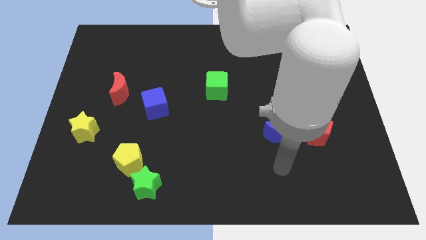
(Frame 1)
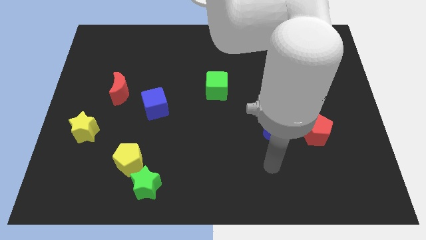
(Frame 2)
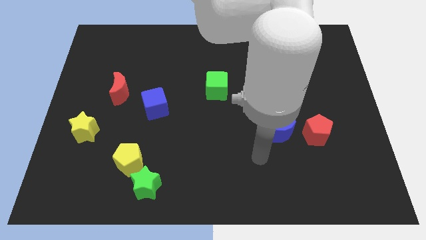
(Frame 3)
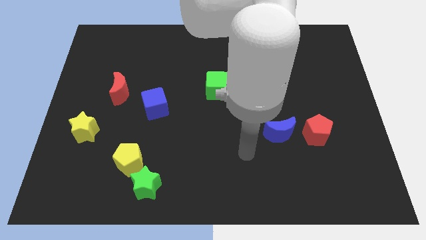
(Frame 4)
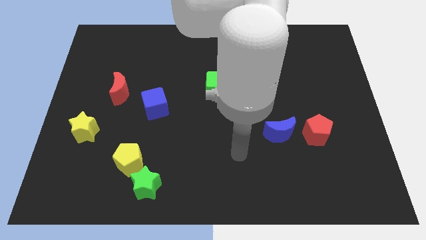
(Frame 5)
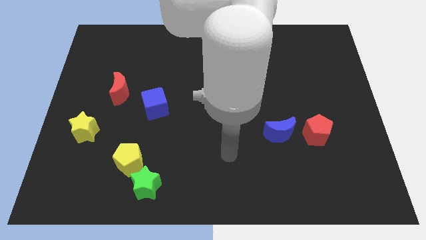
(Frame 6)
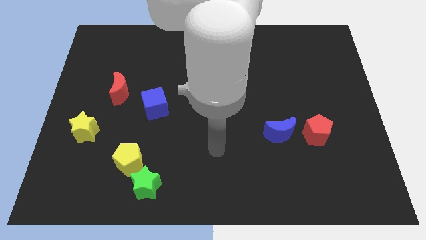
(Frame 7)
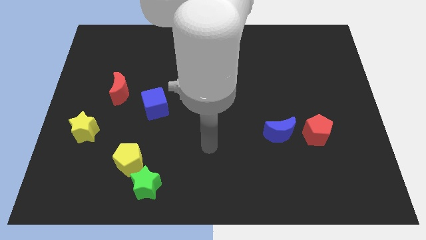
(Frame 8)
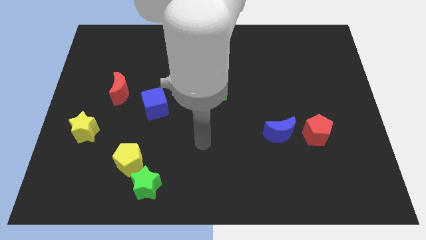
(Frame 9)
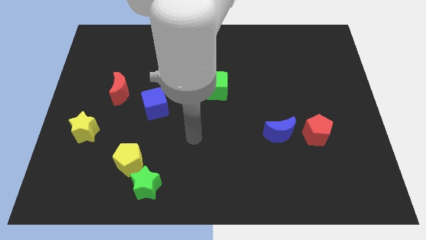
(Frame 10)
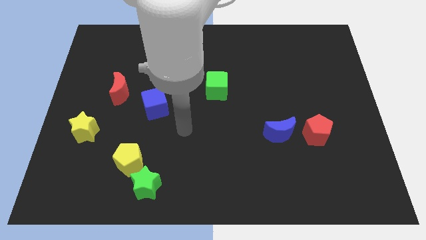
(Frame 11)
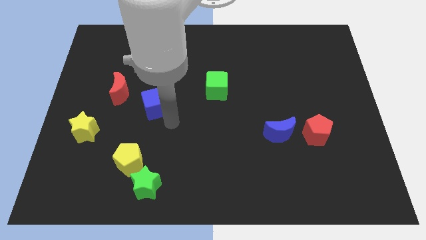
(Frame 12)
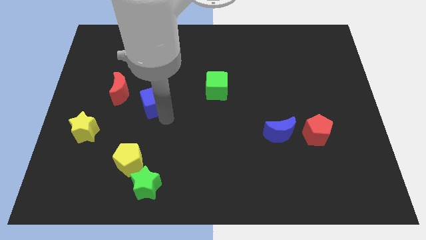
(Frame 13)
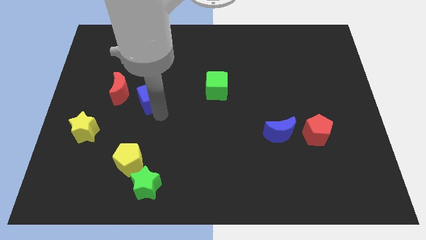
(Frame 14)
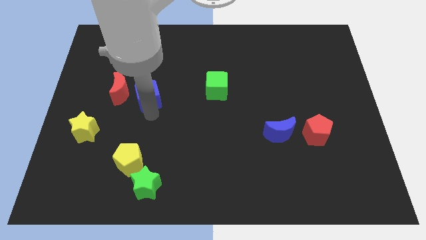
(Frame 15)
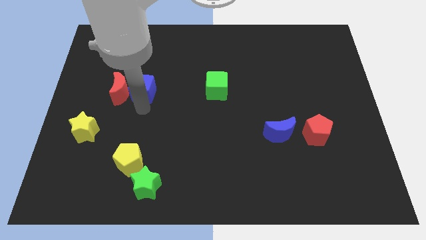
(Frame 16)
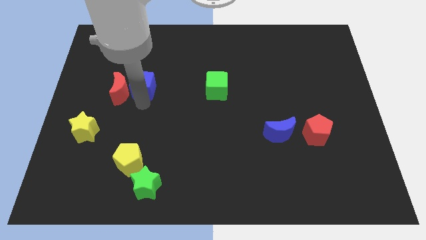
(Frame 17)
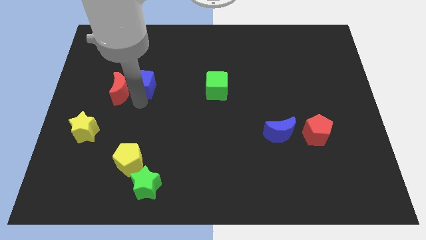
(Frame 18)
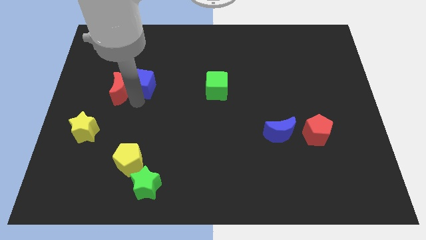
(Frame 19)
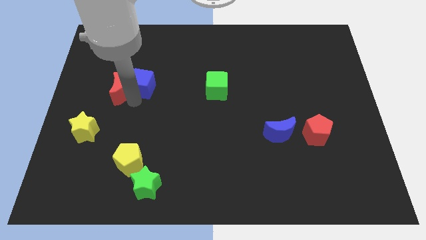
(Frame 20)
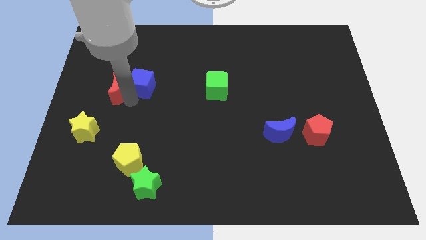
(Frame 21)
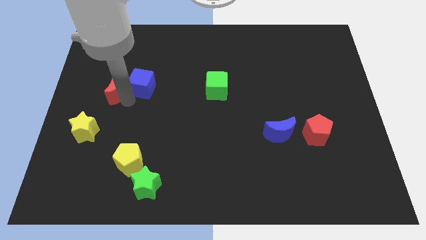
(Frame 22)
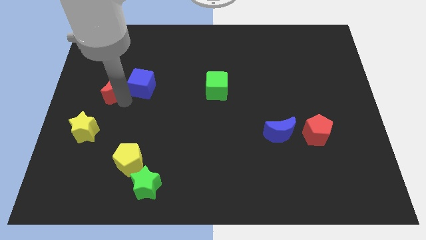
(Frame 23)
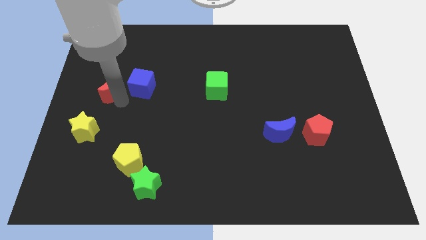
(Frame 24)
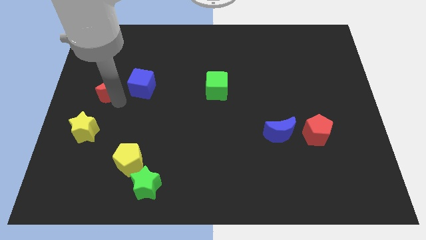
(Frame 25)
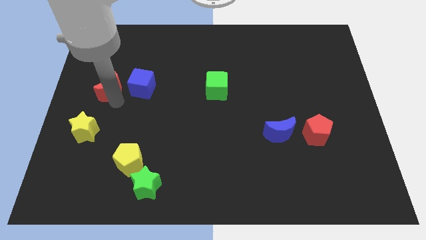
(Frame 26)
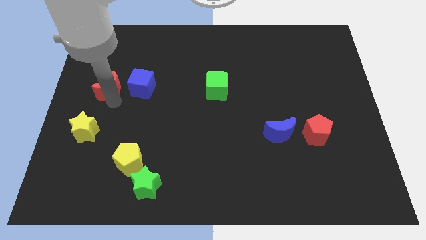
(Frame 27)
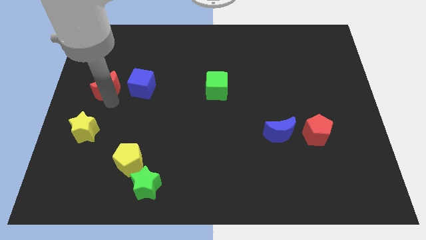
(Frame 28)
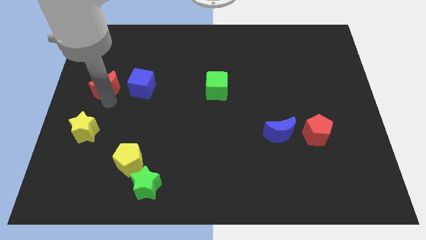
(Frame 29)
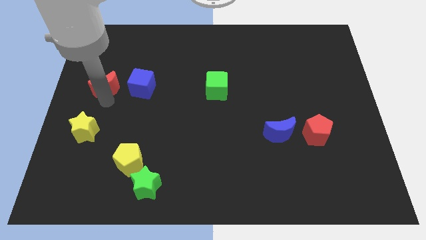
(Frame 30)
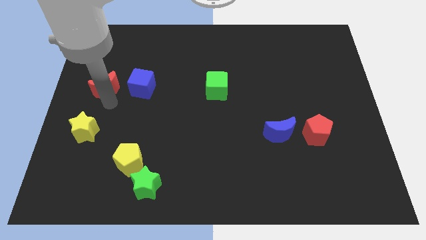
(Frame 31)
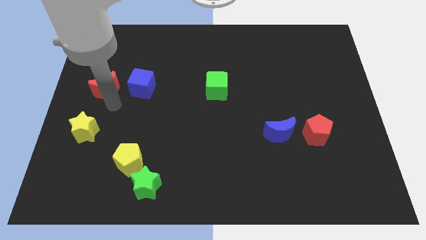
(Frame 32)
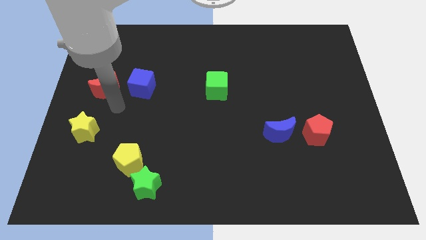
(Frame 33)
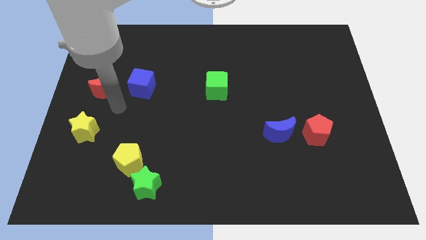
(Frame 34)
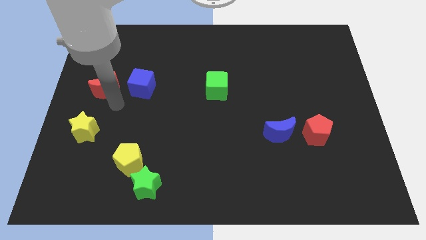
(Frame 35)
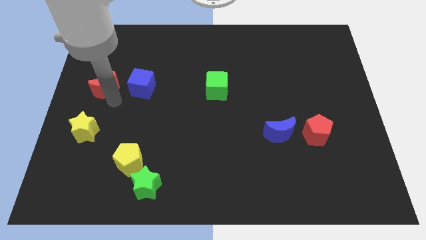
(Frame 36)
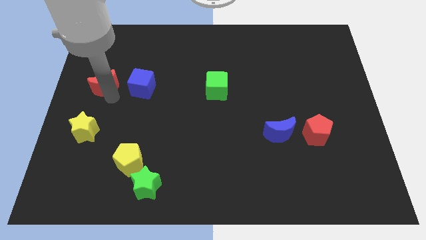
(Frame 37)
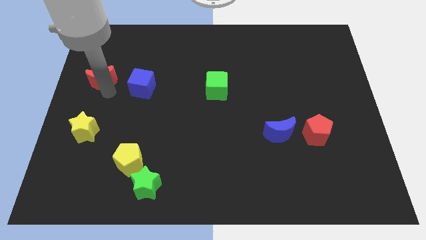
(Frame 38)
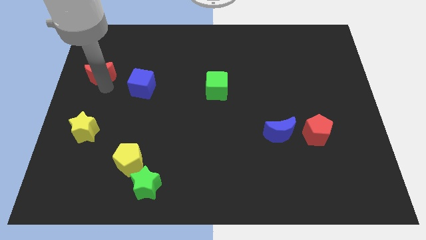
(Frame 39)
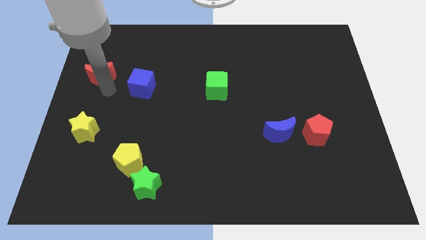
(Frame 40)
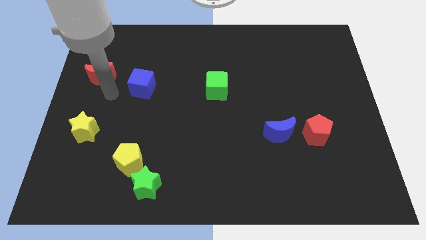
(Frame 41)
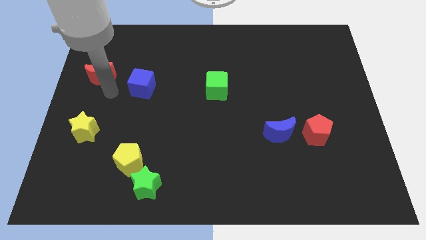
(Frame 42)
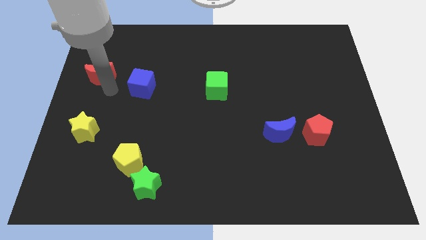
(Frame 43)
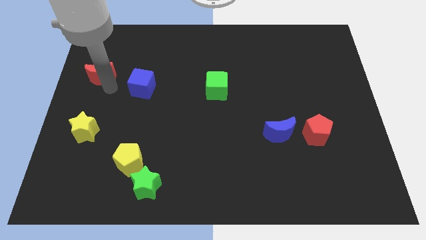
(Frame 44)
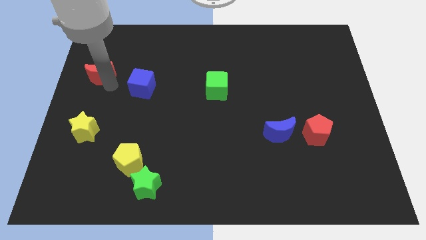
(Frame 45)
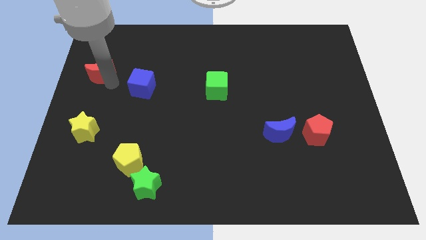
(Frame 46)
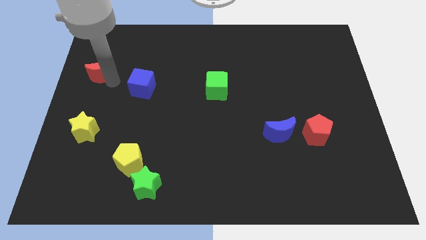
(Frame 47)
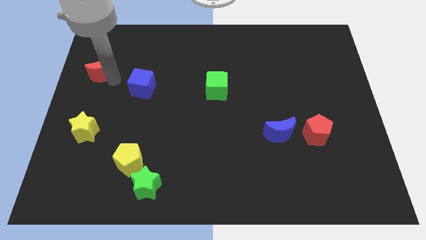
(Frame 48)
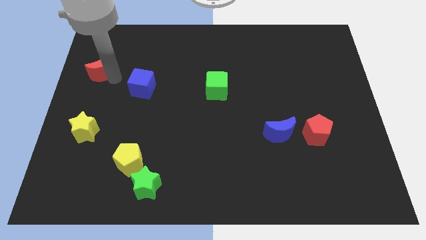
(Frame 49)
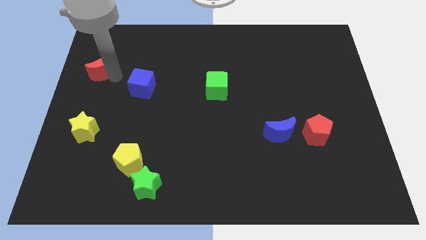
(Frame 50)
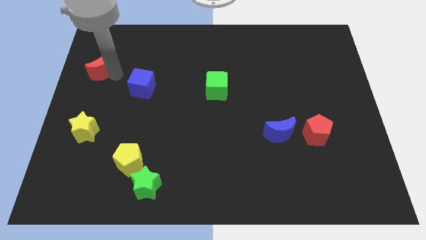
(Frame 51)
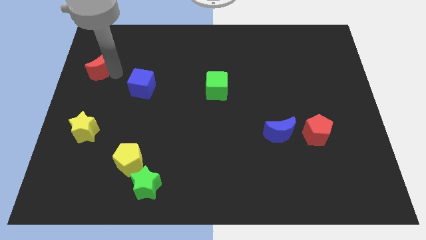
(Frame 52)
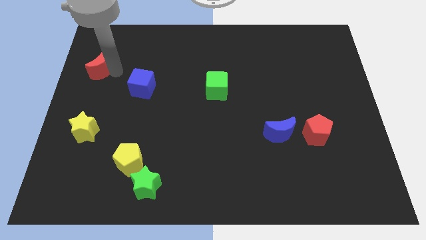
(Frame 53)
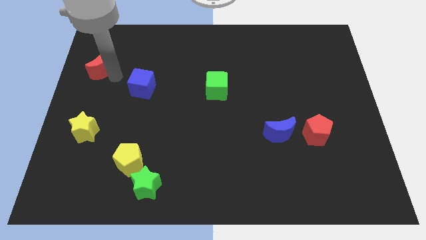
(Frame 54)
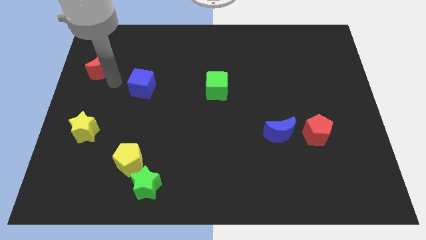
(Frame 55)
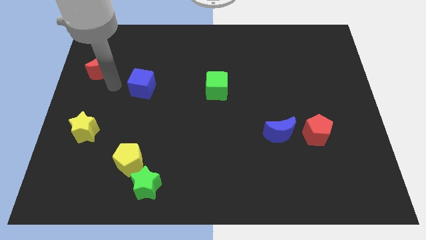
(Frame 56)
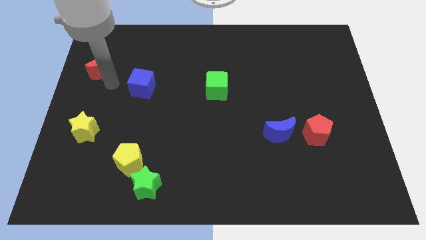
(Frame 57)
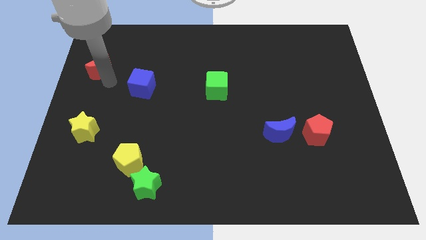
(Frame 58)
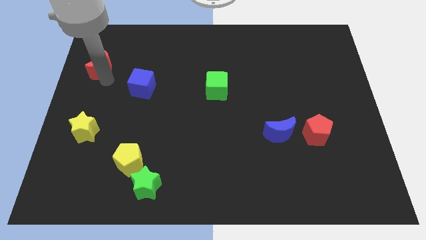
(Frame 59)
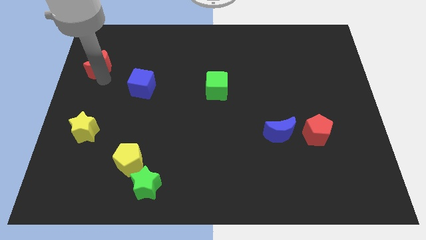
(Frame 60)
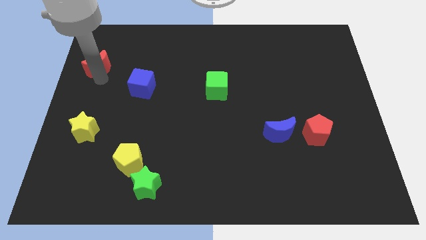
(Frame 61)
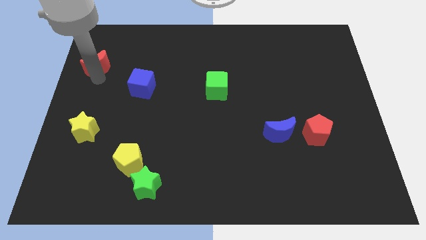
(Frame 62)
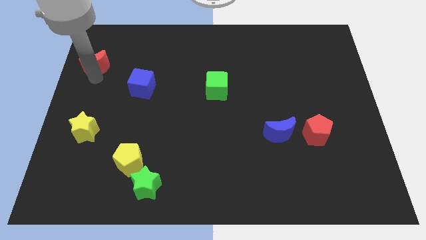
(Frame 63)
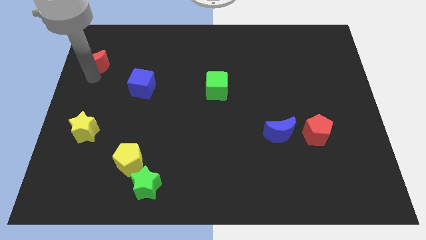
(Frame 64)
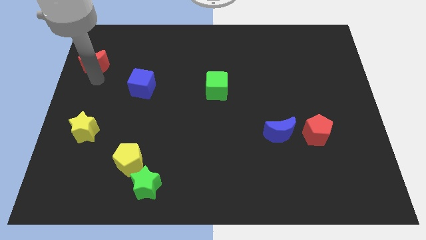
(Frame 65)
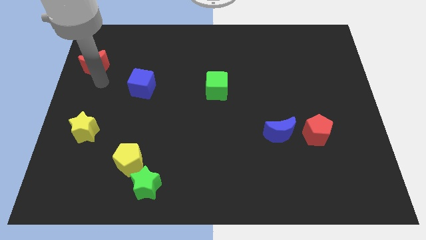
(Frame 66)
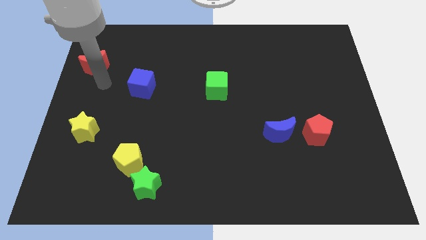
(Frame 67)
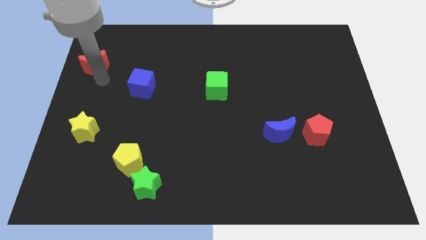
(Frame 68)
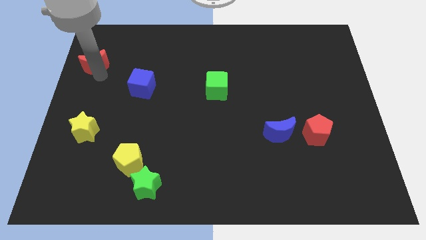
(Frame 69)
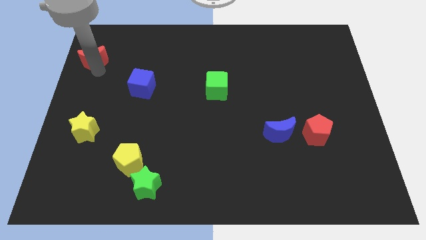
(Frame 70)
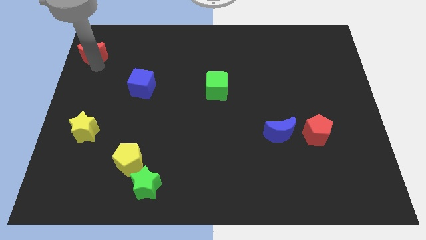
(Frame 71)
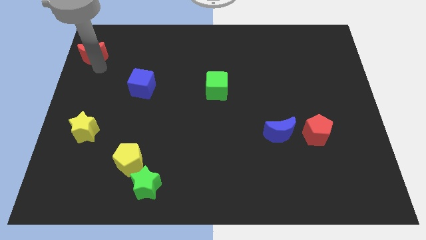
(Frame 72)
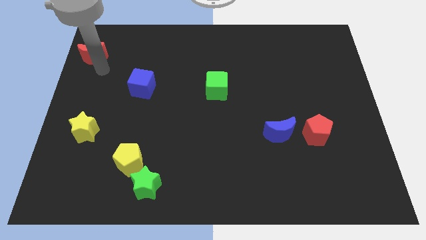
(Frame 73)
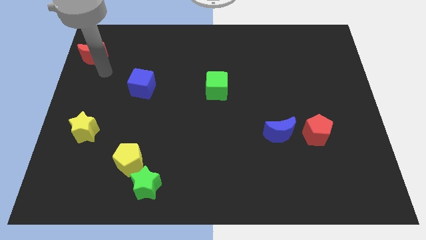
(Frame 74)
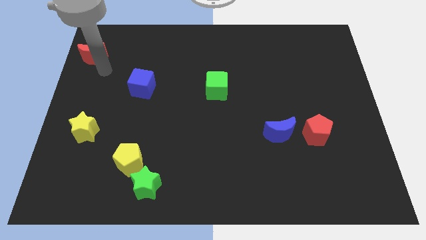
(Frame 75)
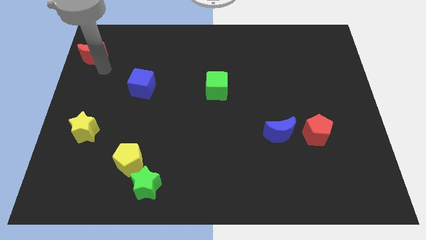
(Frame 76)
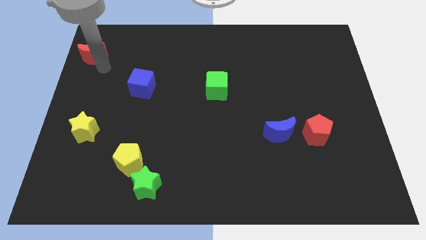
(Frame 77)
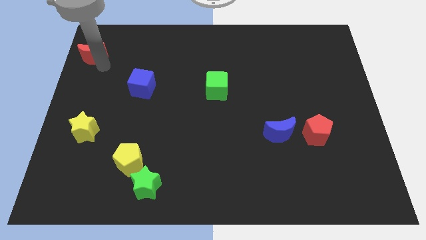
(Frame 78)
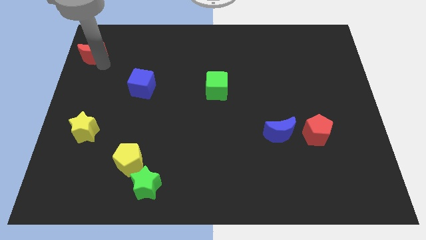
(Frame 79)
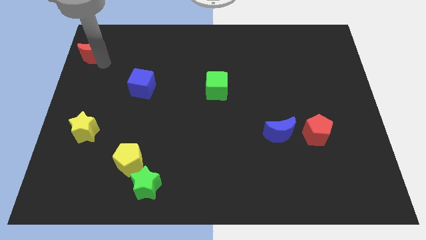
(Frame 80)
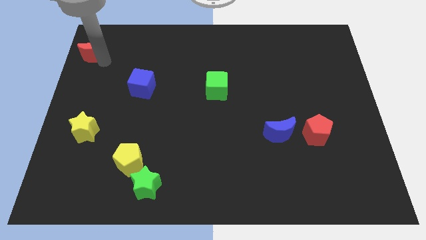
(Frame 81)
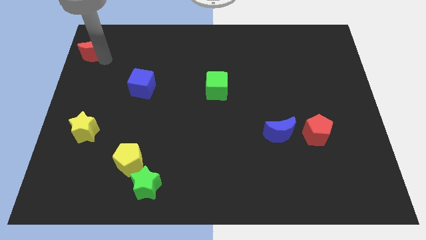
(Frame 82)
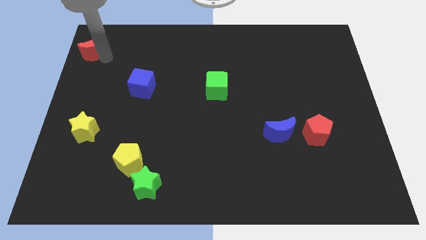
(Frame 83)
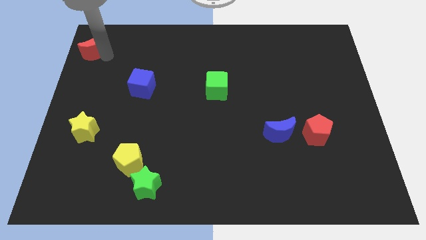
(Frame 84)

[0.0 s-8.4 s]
put the red moon to the top left
